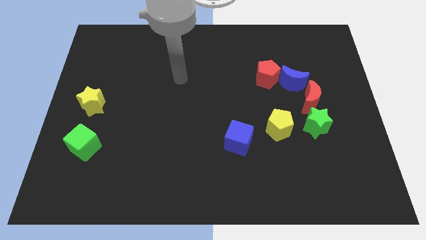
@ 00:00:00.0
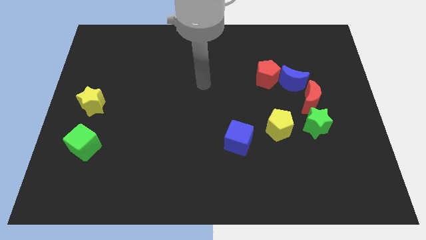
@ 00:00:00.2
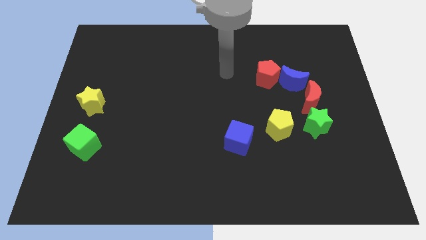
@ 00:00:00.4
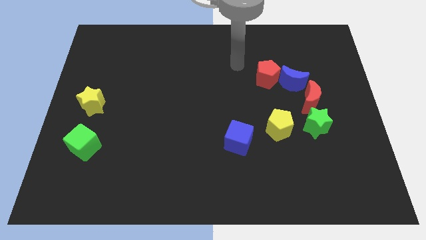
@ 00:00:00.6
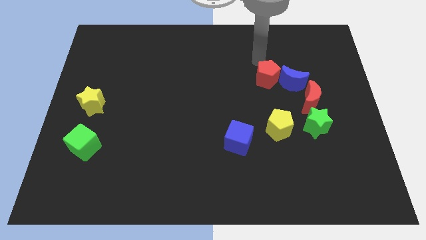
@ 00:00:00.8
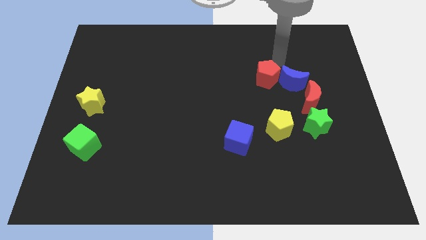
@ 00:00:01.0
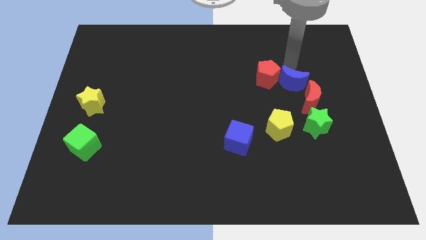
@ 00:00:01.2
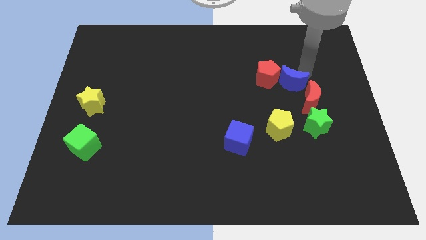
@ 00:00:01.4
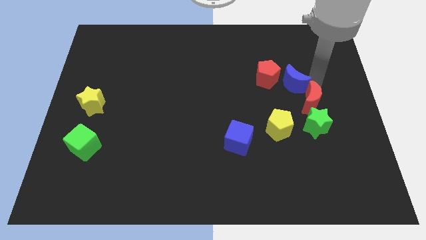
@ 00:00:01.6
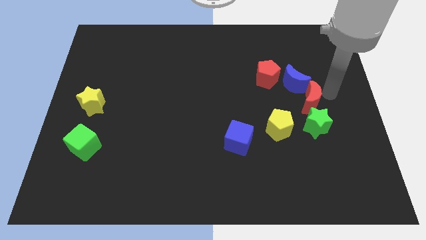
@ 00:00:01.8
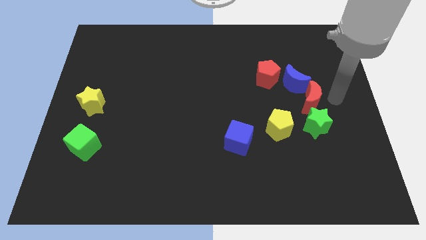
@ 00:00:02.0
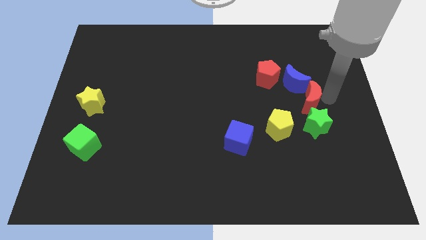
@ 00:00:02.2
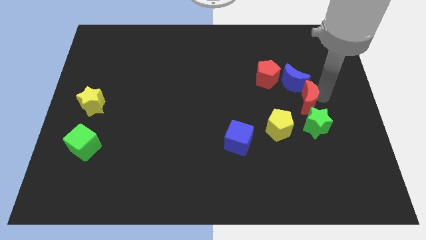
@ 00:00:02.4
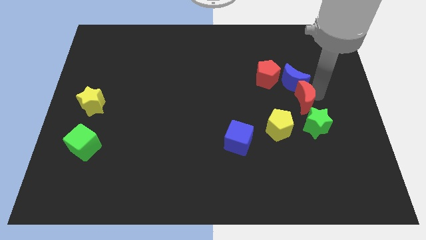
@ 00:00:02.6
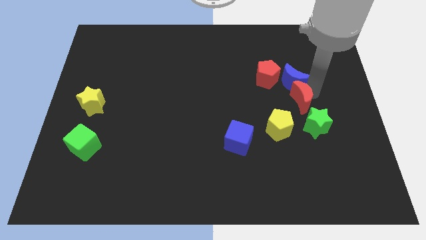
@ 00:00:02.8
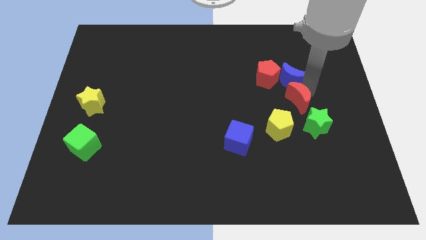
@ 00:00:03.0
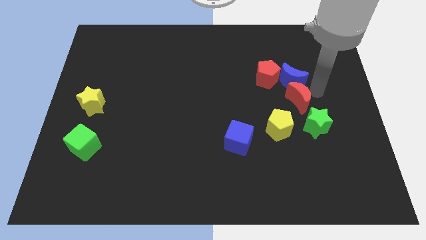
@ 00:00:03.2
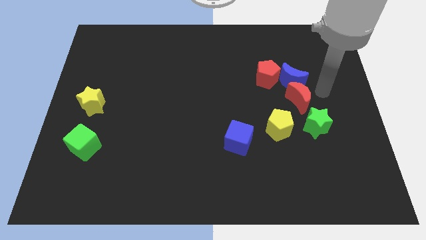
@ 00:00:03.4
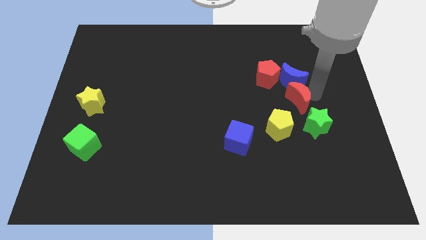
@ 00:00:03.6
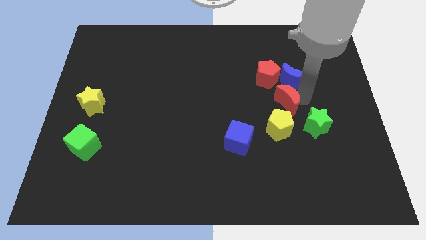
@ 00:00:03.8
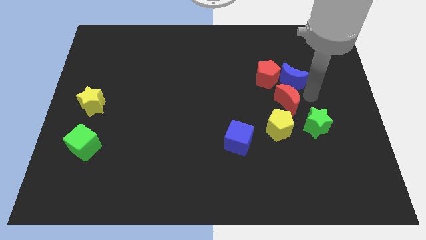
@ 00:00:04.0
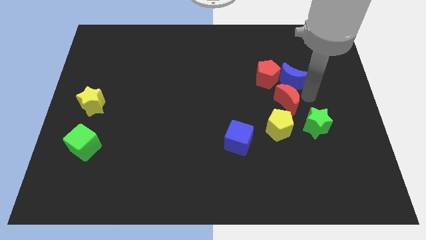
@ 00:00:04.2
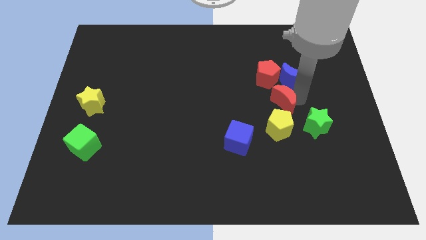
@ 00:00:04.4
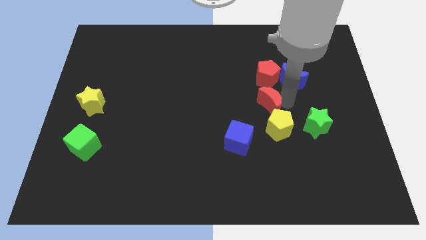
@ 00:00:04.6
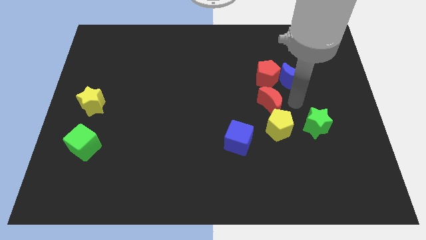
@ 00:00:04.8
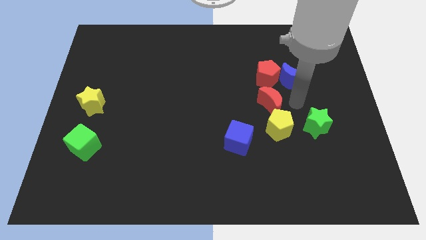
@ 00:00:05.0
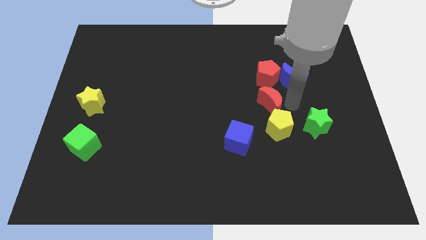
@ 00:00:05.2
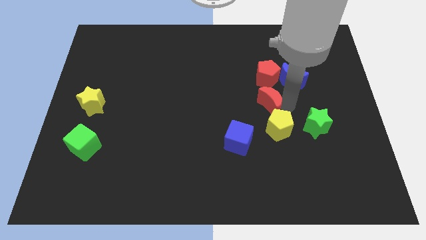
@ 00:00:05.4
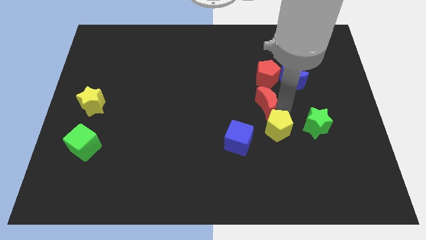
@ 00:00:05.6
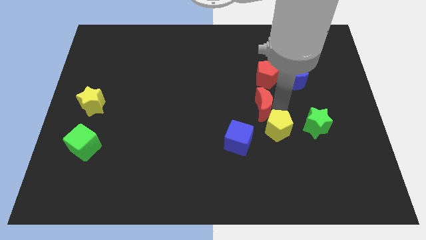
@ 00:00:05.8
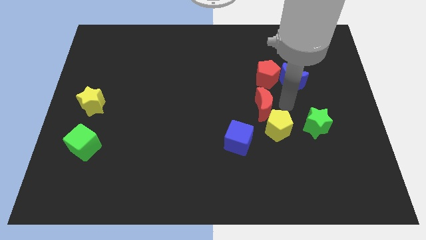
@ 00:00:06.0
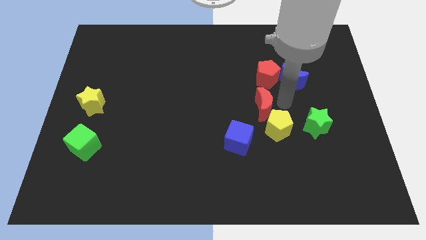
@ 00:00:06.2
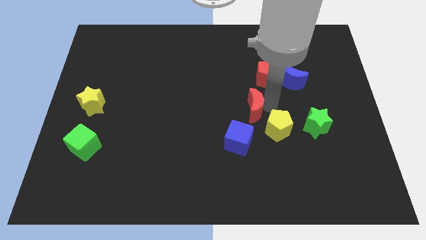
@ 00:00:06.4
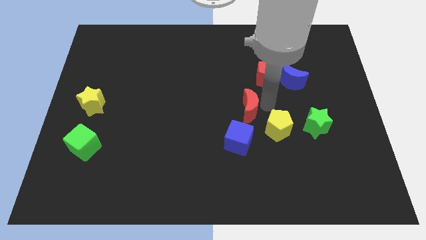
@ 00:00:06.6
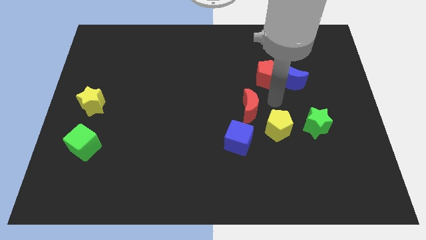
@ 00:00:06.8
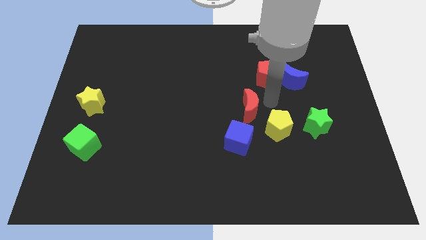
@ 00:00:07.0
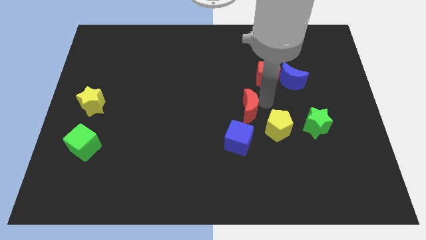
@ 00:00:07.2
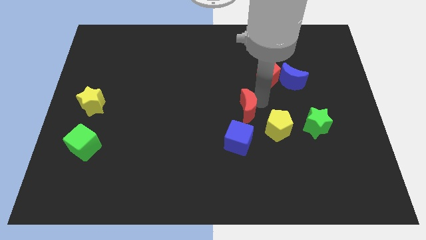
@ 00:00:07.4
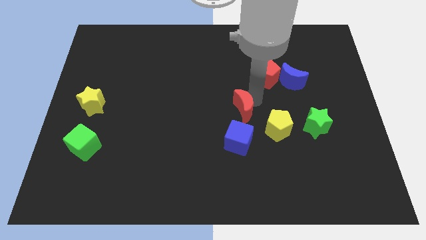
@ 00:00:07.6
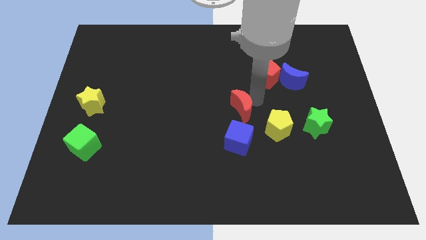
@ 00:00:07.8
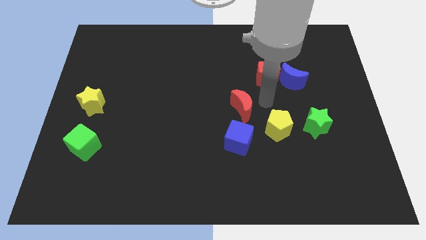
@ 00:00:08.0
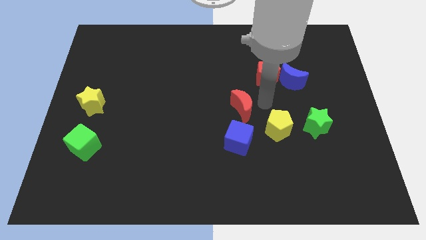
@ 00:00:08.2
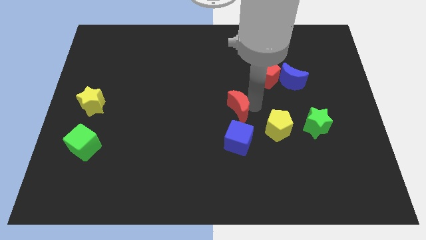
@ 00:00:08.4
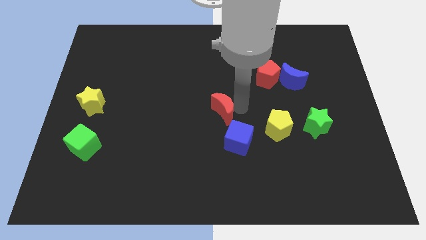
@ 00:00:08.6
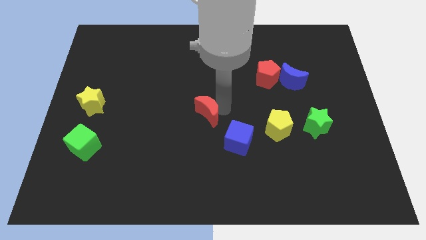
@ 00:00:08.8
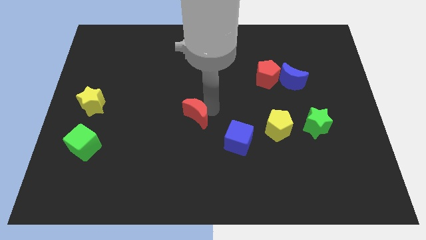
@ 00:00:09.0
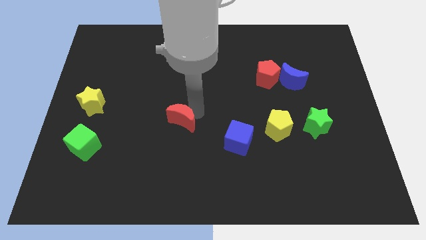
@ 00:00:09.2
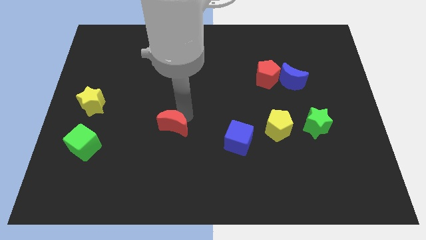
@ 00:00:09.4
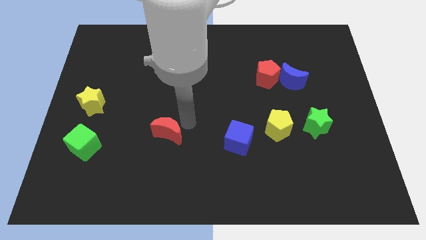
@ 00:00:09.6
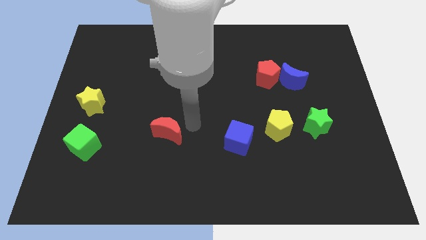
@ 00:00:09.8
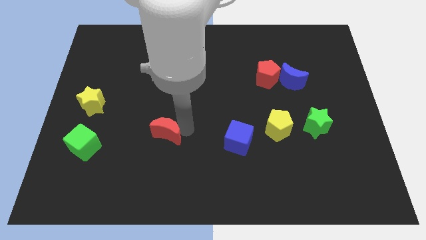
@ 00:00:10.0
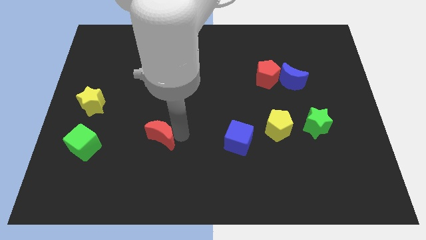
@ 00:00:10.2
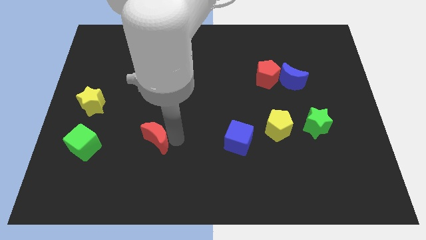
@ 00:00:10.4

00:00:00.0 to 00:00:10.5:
slide the red moon just right of the green cube

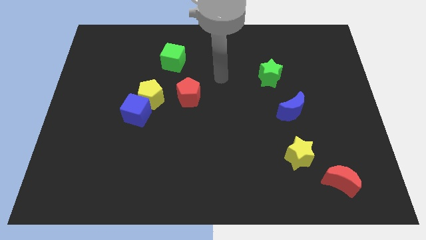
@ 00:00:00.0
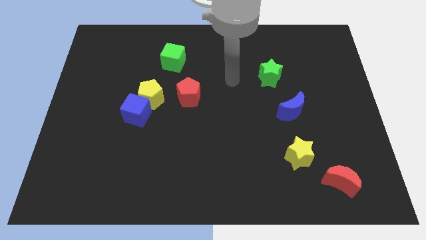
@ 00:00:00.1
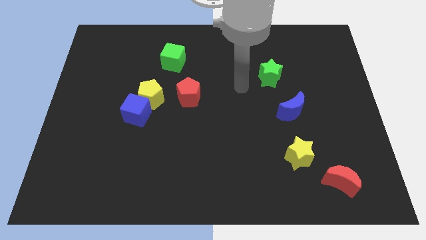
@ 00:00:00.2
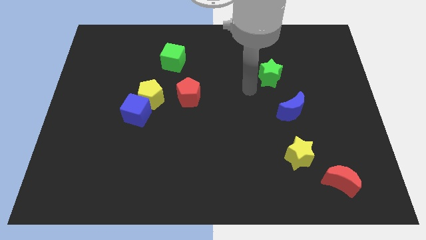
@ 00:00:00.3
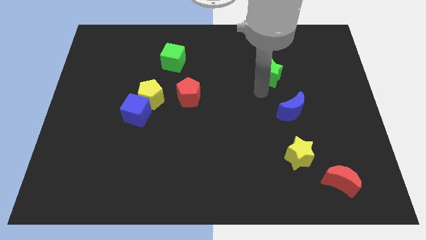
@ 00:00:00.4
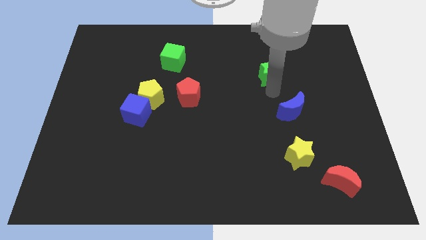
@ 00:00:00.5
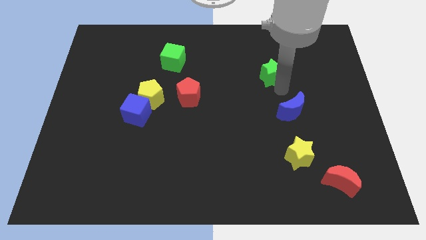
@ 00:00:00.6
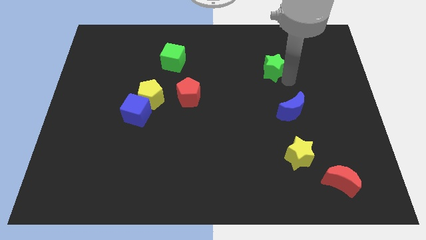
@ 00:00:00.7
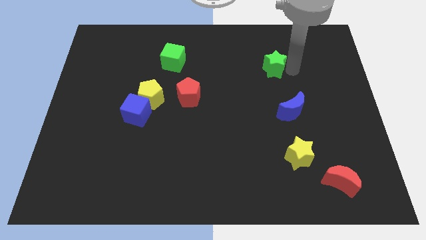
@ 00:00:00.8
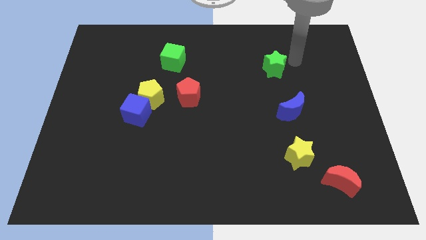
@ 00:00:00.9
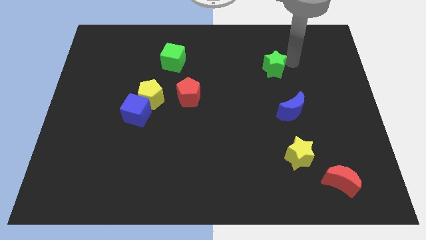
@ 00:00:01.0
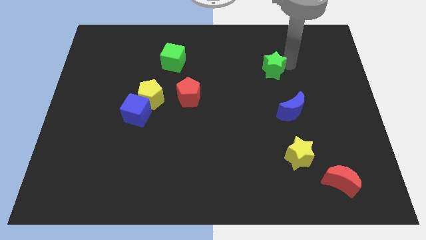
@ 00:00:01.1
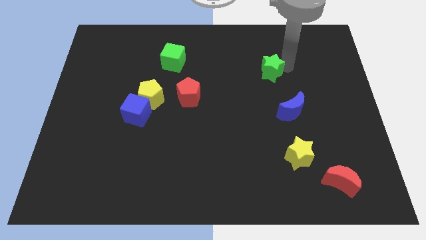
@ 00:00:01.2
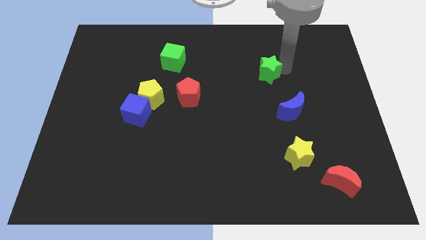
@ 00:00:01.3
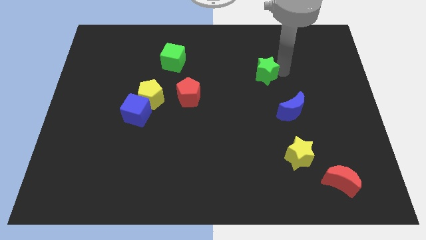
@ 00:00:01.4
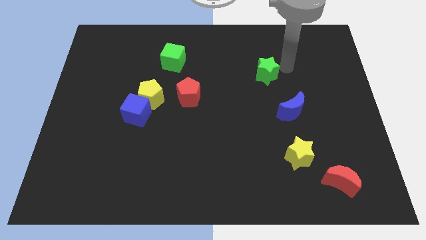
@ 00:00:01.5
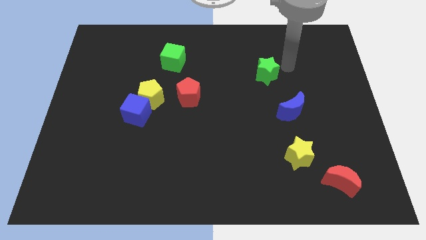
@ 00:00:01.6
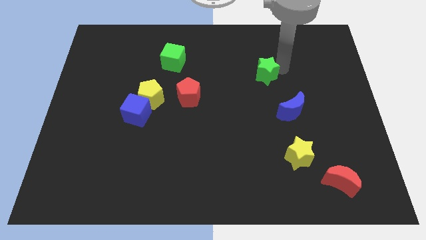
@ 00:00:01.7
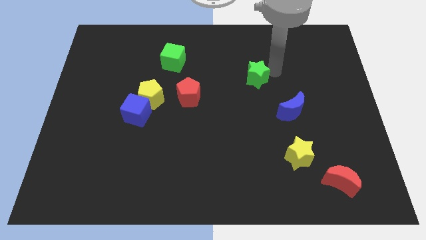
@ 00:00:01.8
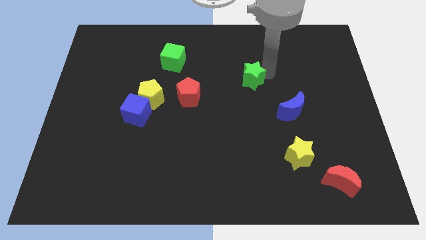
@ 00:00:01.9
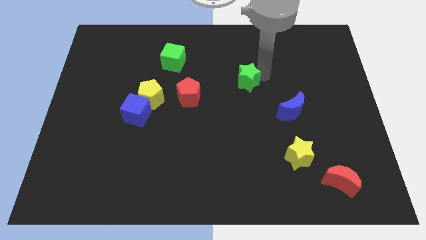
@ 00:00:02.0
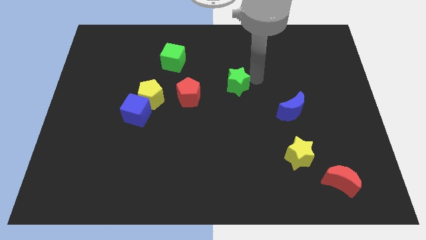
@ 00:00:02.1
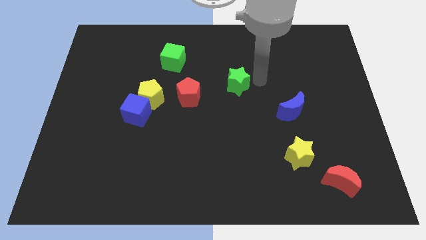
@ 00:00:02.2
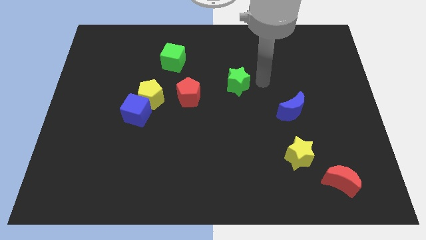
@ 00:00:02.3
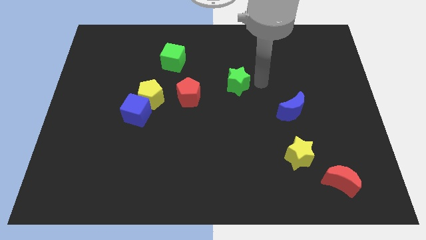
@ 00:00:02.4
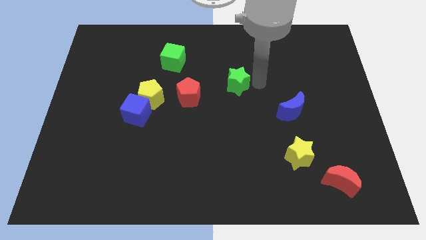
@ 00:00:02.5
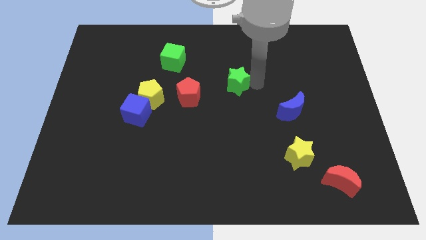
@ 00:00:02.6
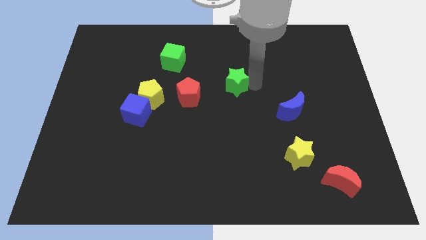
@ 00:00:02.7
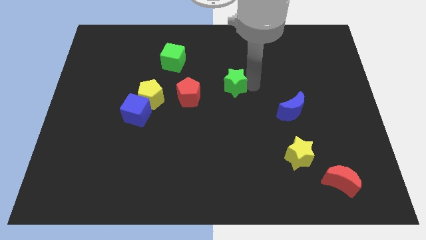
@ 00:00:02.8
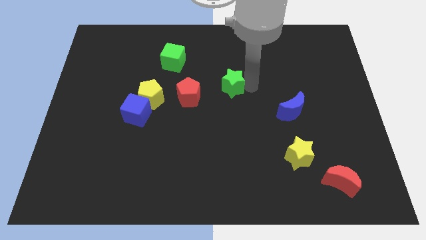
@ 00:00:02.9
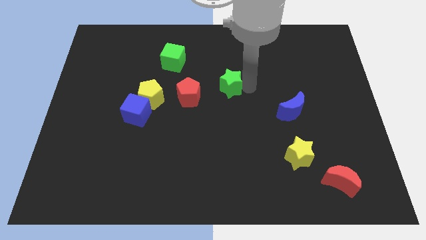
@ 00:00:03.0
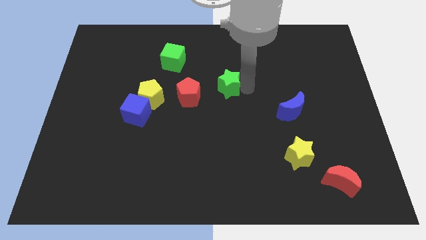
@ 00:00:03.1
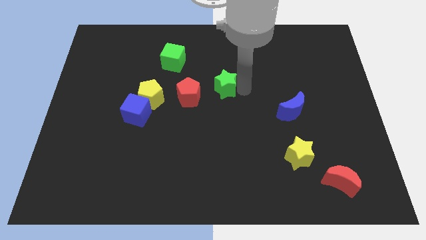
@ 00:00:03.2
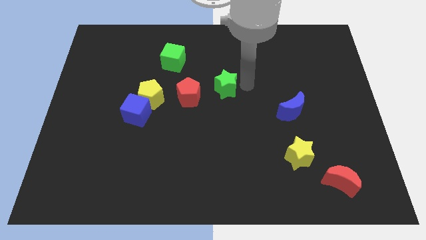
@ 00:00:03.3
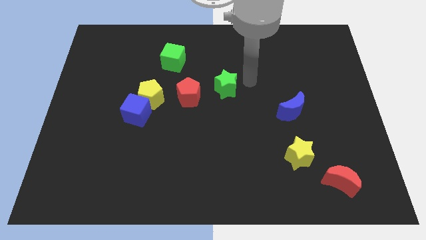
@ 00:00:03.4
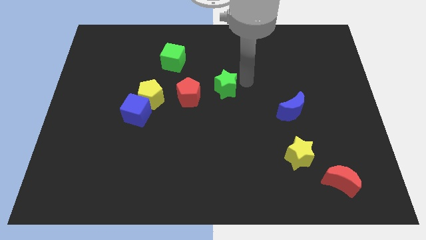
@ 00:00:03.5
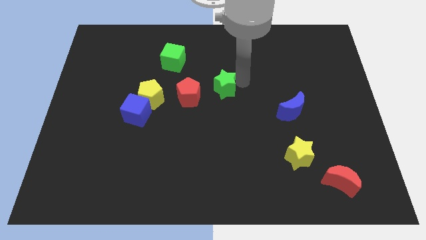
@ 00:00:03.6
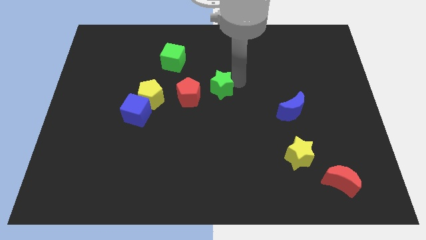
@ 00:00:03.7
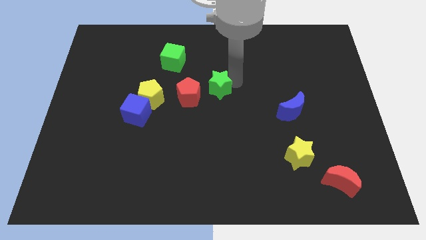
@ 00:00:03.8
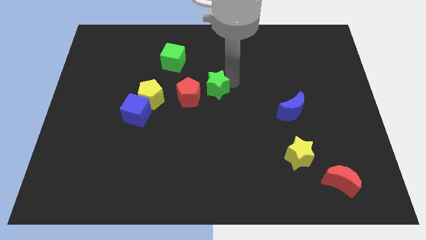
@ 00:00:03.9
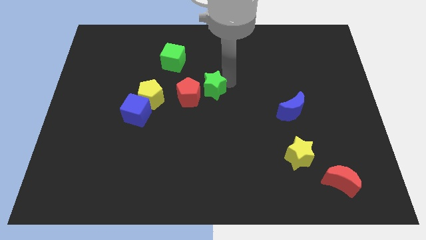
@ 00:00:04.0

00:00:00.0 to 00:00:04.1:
put the green star to the right of the yellow pentagon
